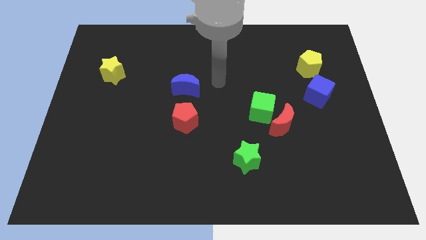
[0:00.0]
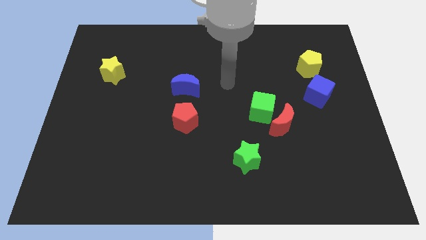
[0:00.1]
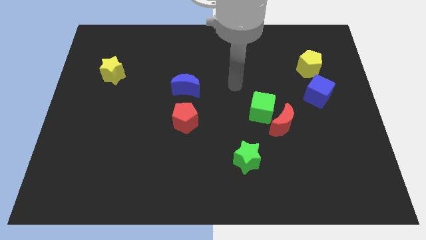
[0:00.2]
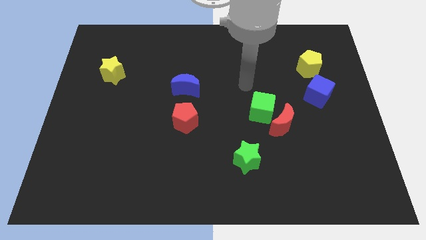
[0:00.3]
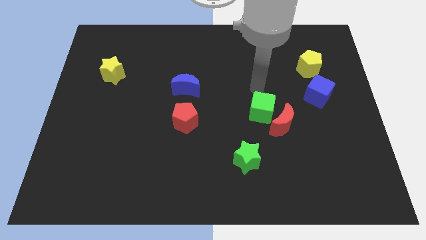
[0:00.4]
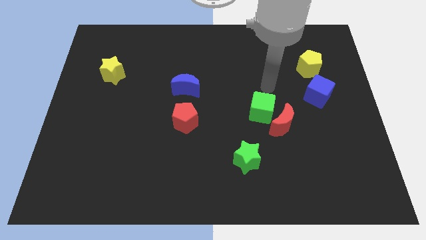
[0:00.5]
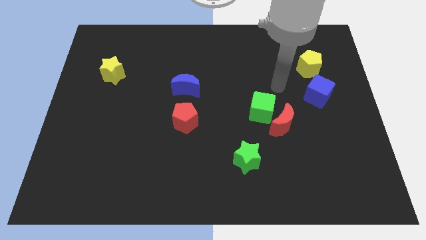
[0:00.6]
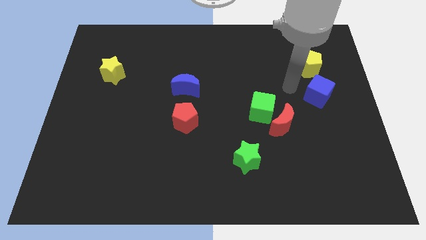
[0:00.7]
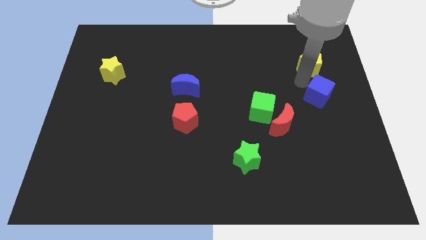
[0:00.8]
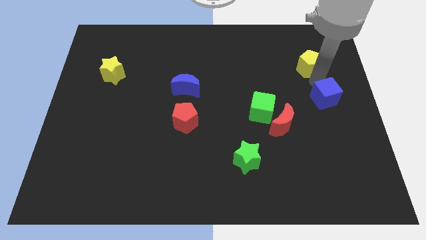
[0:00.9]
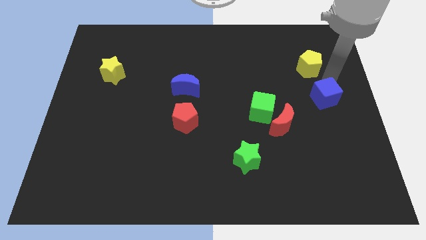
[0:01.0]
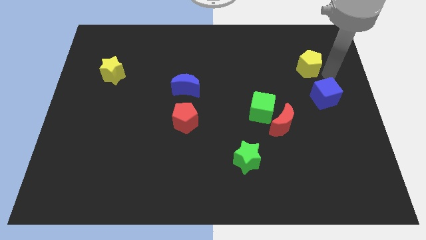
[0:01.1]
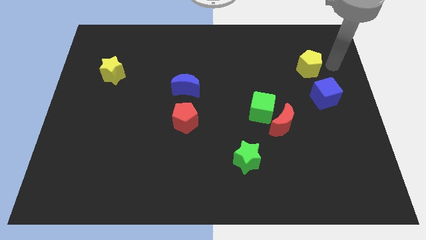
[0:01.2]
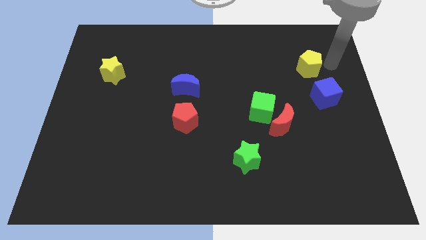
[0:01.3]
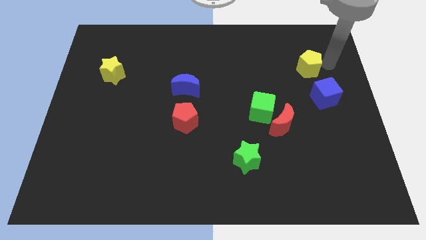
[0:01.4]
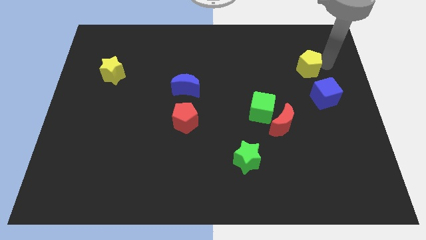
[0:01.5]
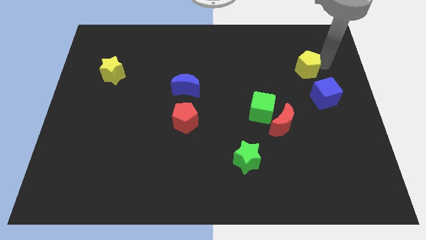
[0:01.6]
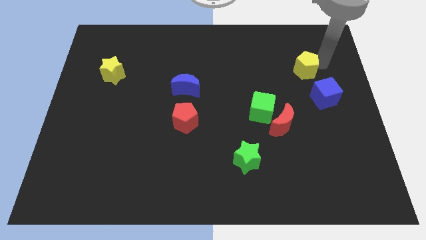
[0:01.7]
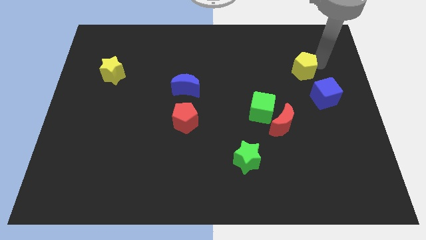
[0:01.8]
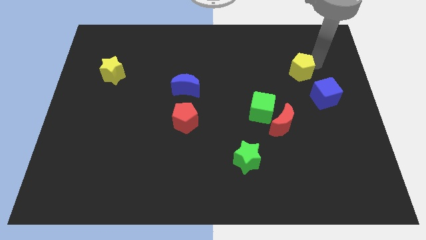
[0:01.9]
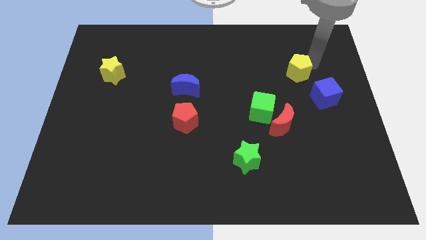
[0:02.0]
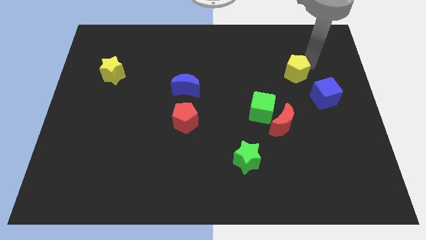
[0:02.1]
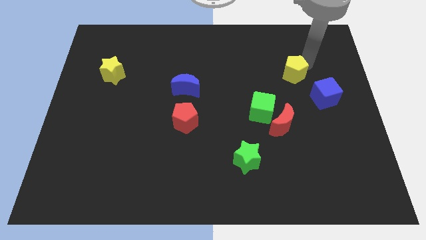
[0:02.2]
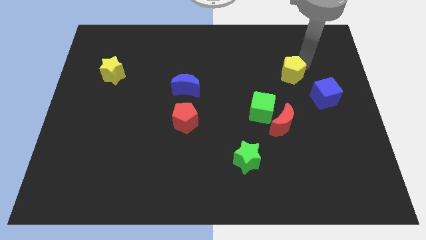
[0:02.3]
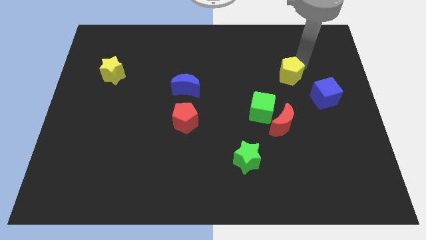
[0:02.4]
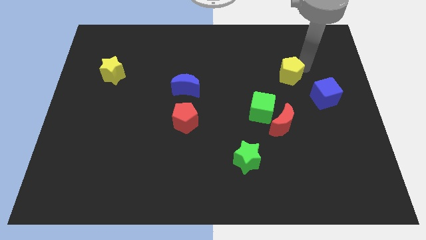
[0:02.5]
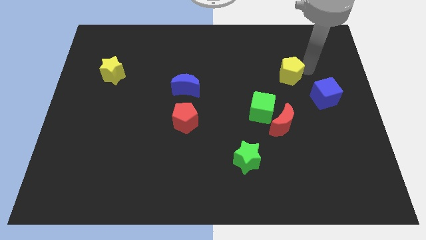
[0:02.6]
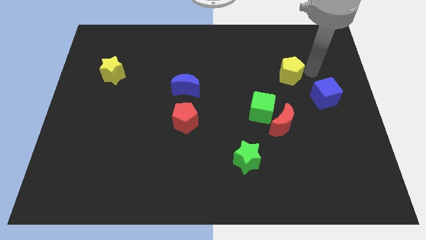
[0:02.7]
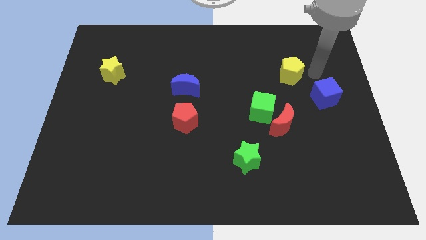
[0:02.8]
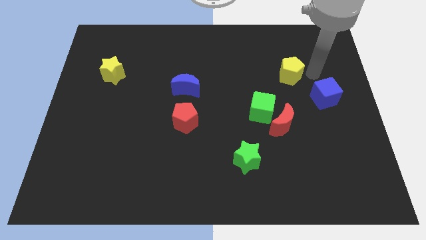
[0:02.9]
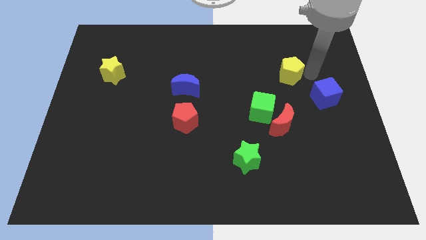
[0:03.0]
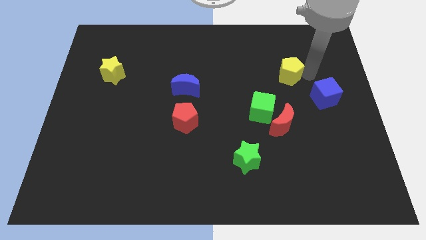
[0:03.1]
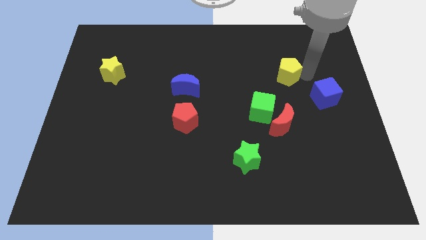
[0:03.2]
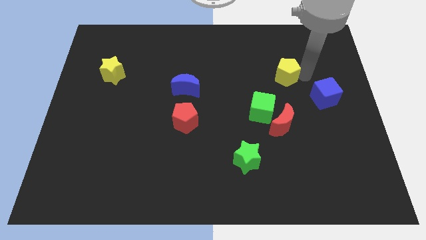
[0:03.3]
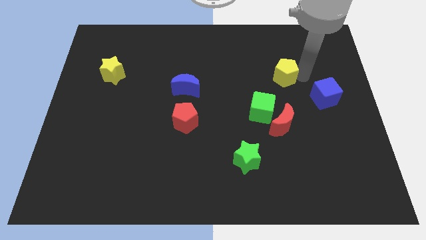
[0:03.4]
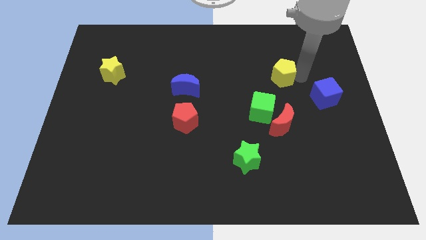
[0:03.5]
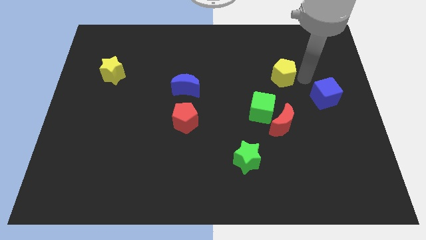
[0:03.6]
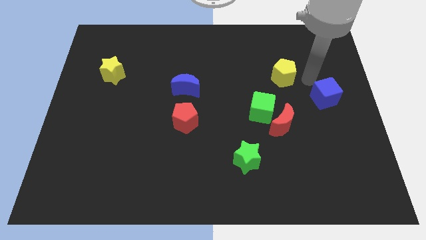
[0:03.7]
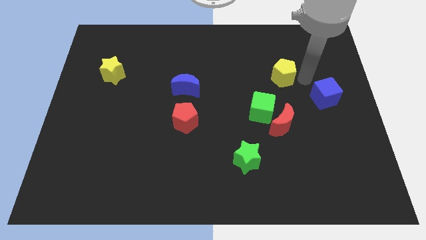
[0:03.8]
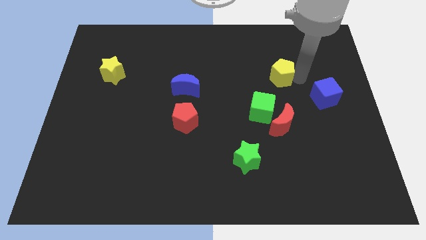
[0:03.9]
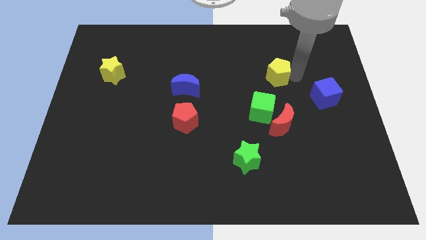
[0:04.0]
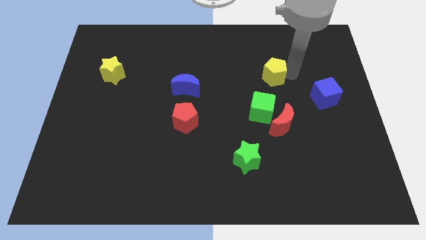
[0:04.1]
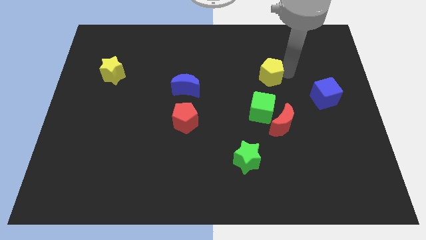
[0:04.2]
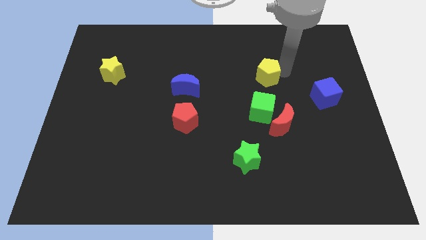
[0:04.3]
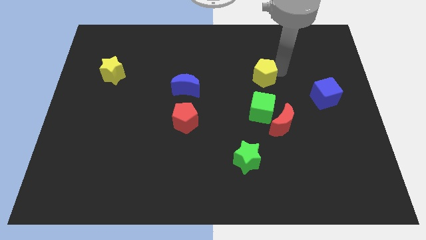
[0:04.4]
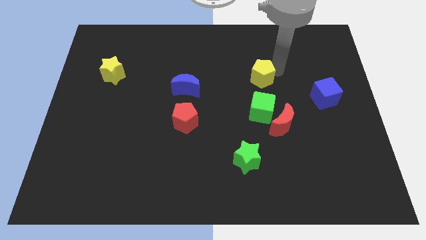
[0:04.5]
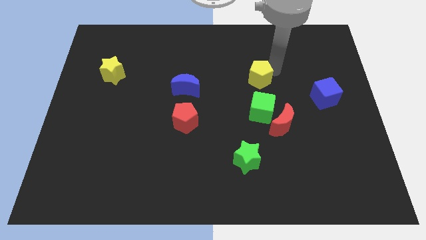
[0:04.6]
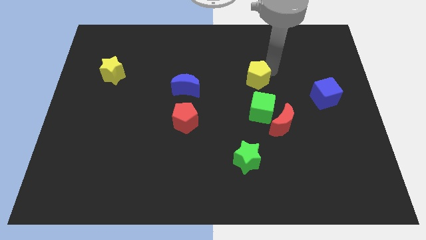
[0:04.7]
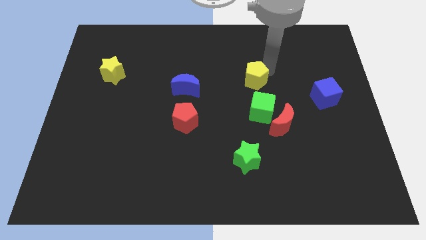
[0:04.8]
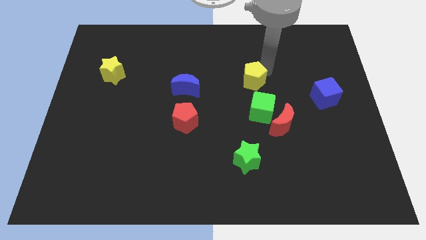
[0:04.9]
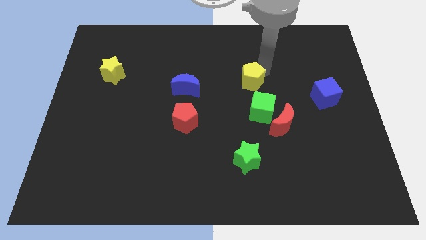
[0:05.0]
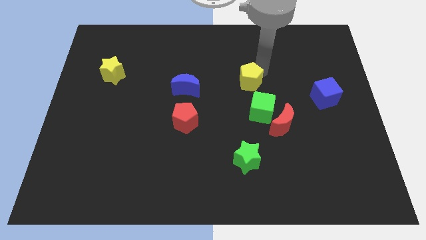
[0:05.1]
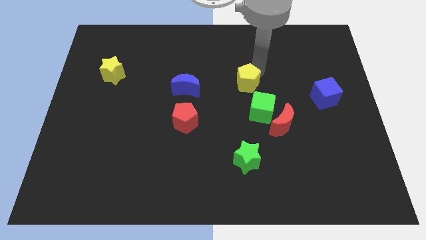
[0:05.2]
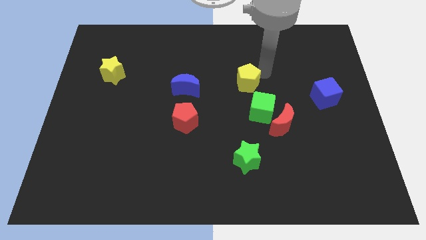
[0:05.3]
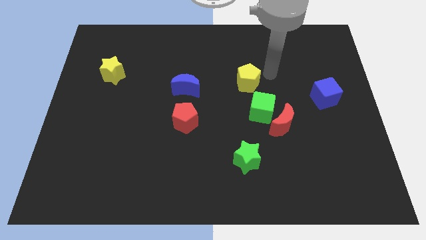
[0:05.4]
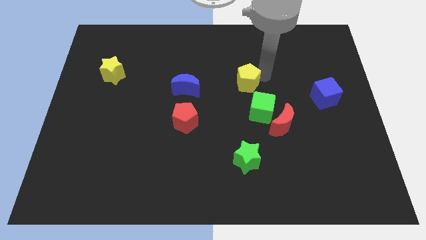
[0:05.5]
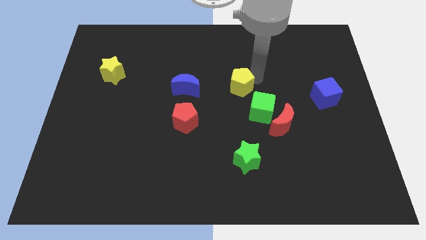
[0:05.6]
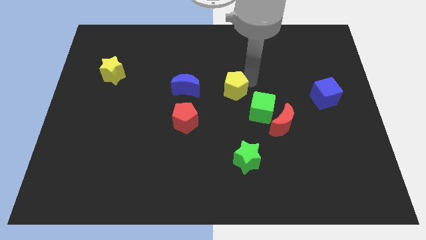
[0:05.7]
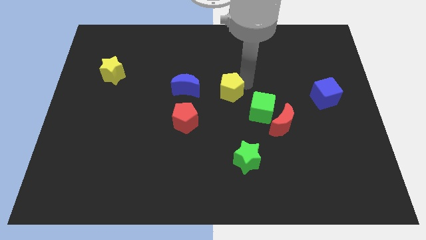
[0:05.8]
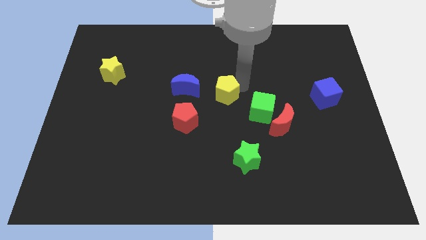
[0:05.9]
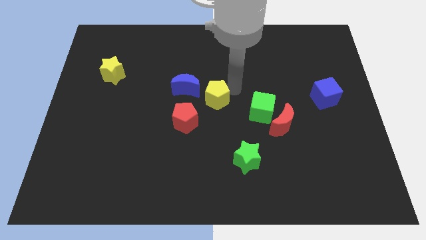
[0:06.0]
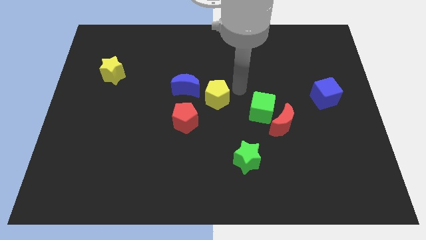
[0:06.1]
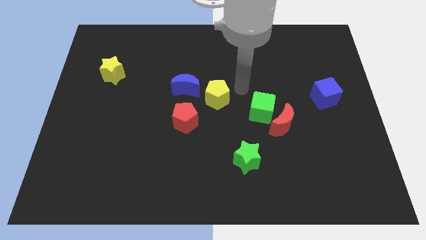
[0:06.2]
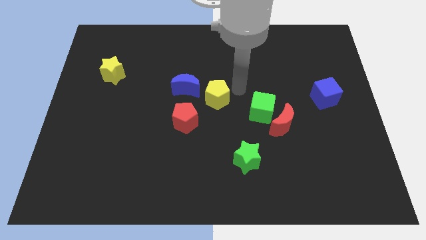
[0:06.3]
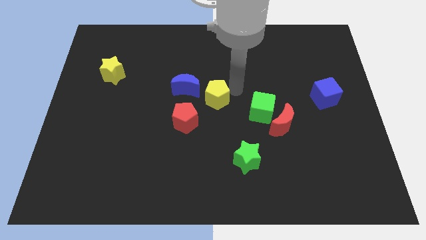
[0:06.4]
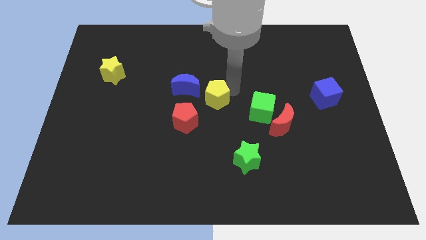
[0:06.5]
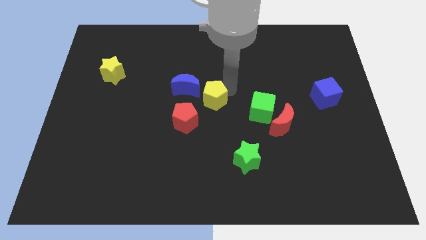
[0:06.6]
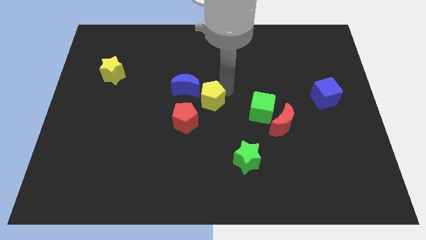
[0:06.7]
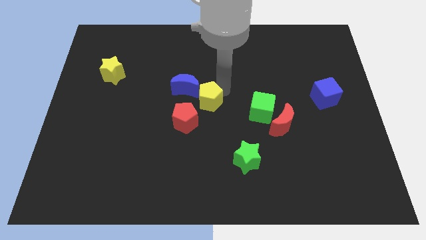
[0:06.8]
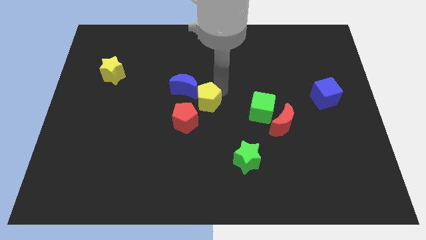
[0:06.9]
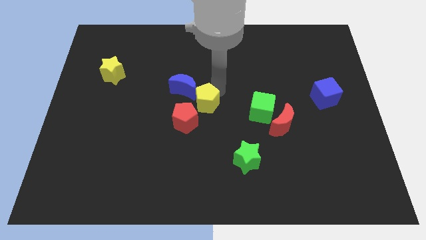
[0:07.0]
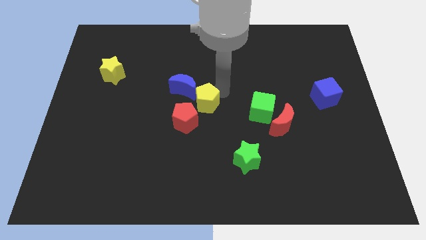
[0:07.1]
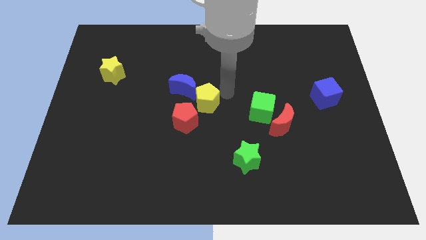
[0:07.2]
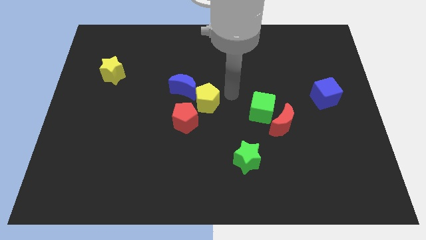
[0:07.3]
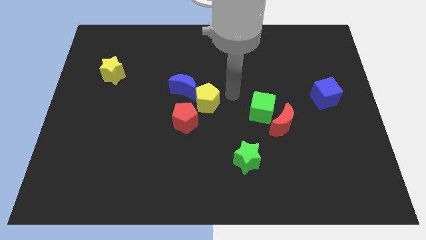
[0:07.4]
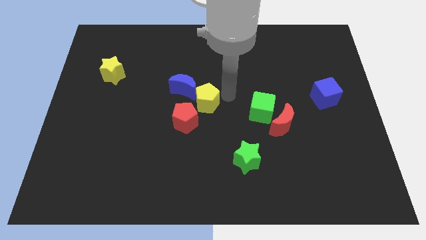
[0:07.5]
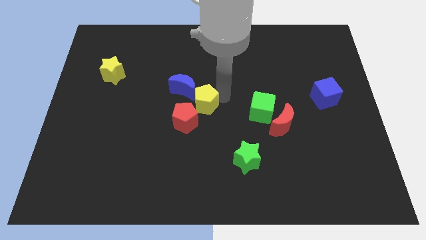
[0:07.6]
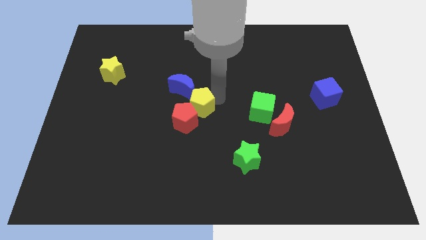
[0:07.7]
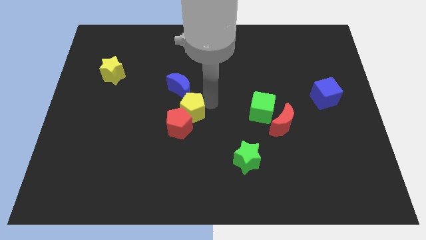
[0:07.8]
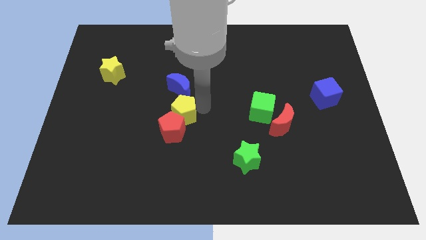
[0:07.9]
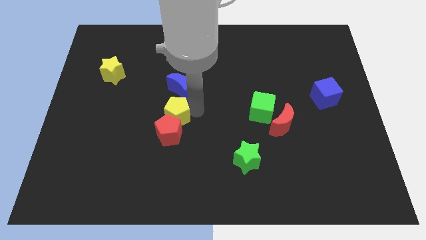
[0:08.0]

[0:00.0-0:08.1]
slide the yellow pentagon diagonally down and to the left of the blue moon
